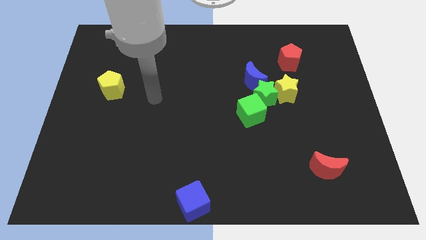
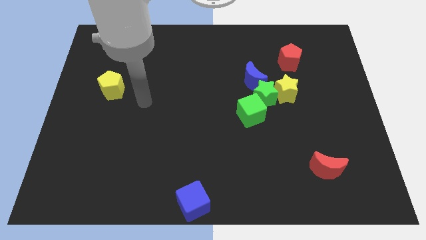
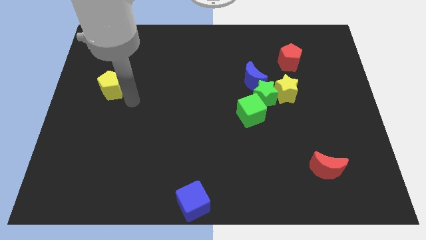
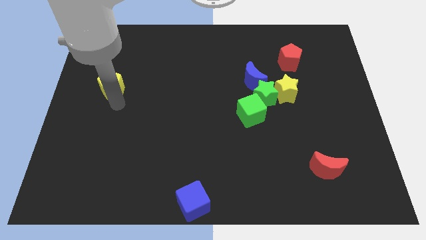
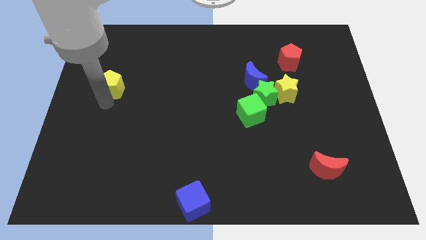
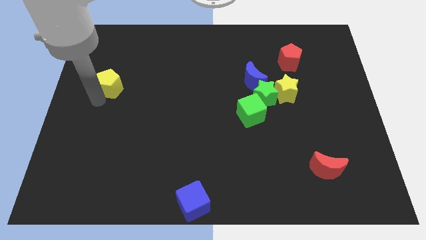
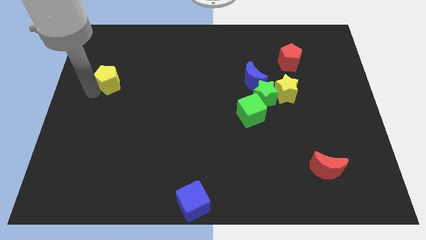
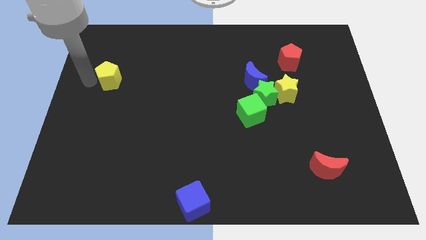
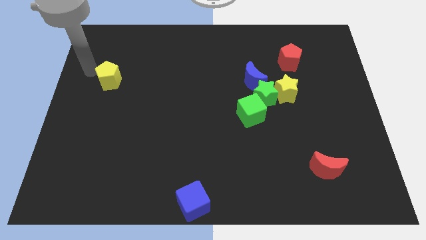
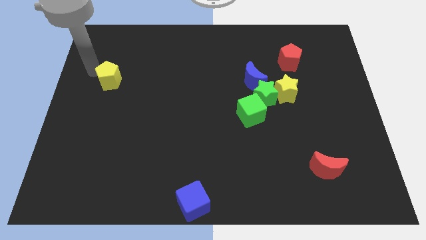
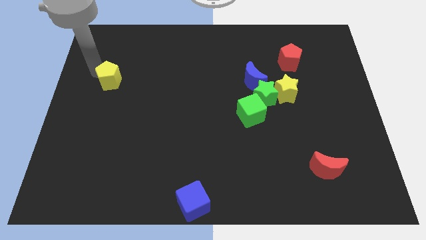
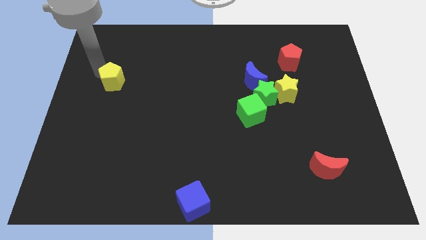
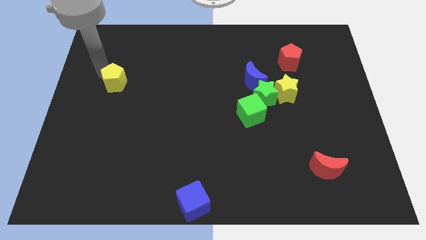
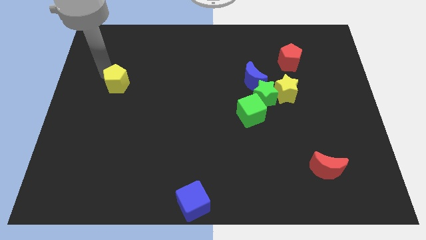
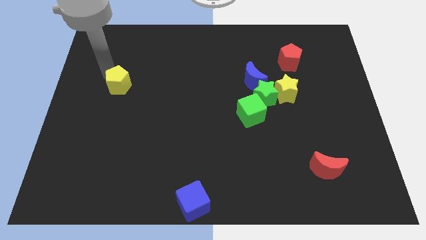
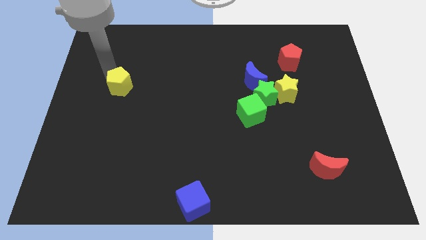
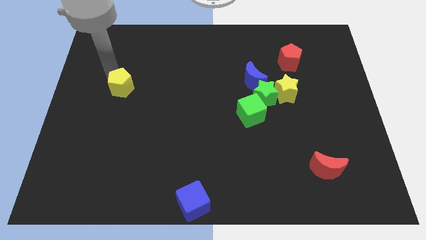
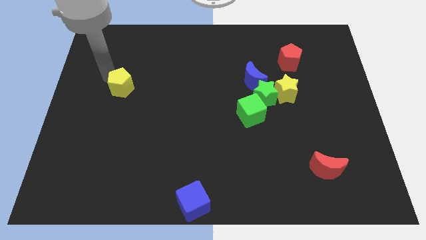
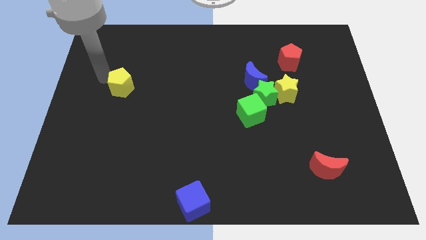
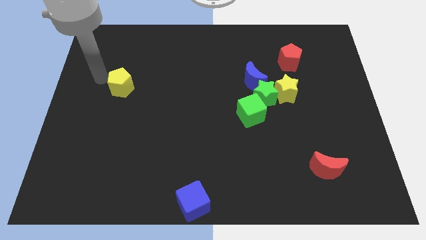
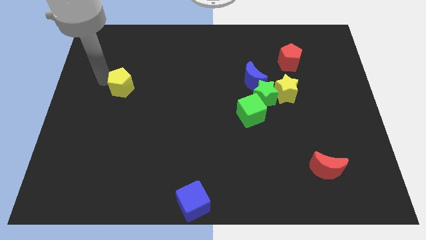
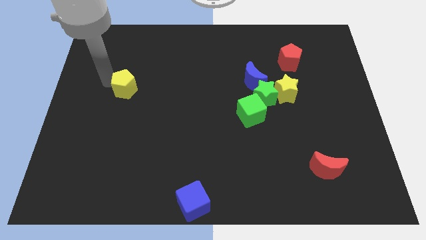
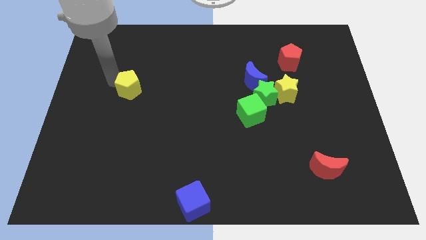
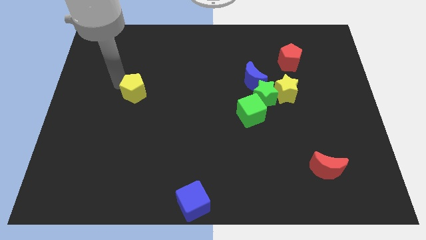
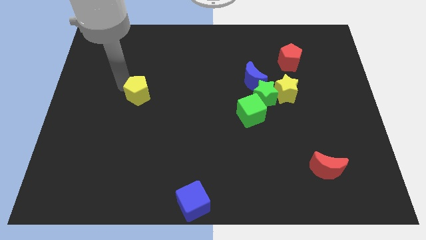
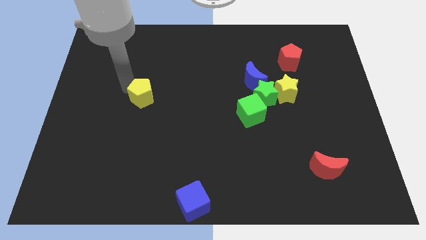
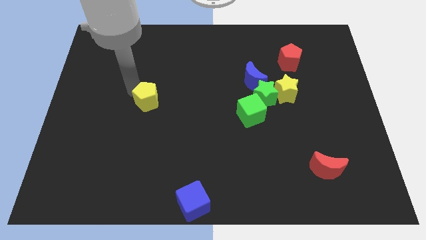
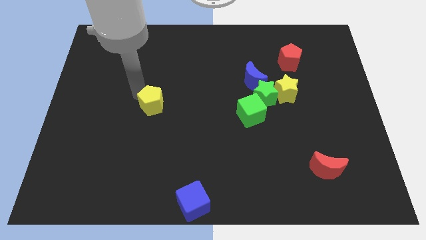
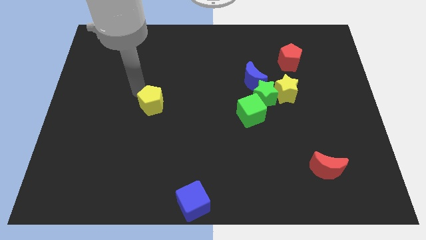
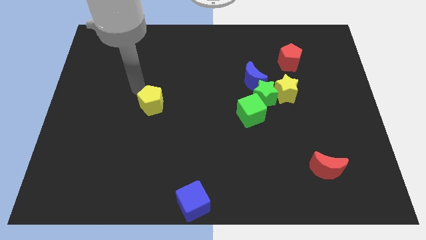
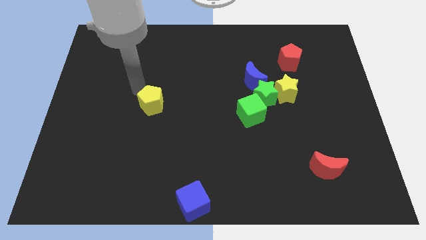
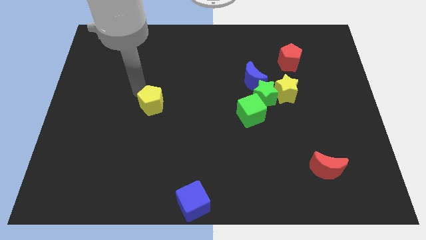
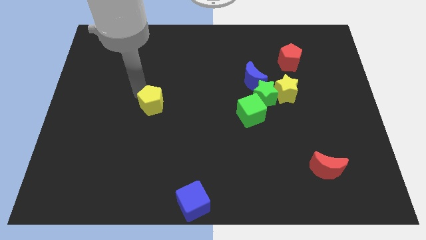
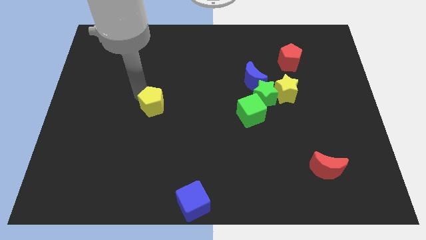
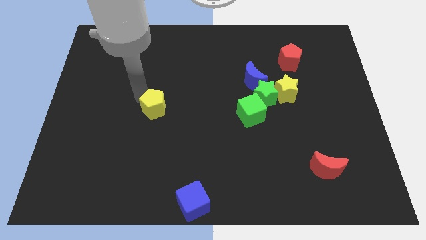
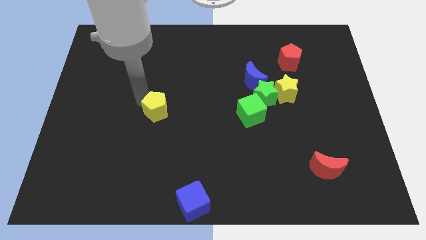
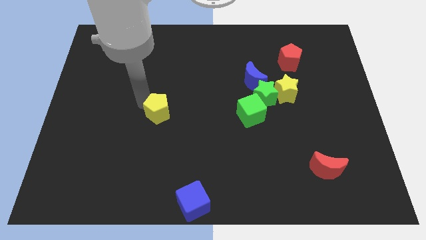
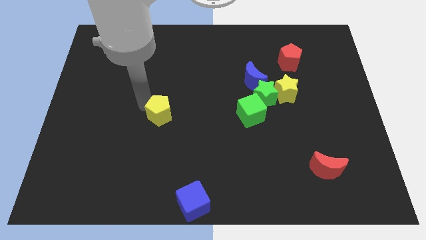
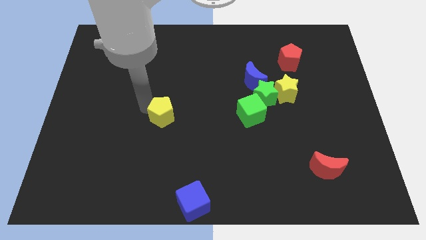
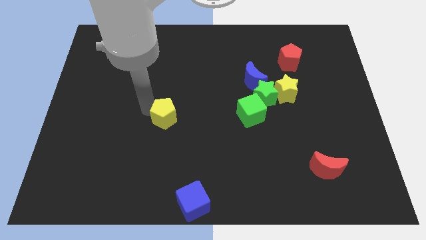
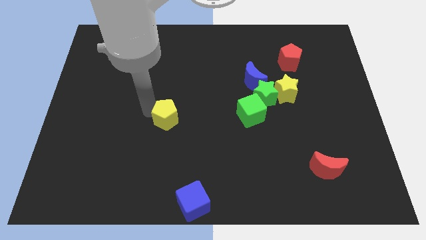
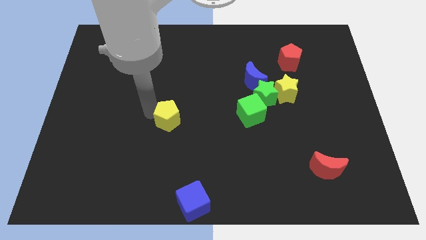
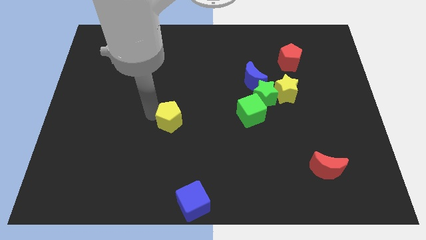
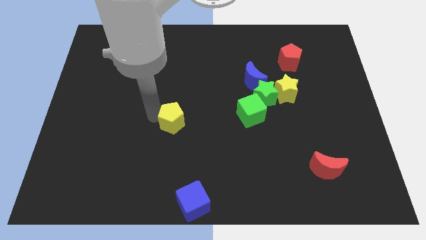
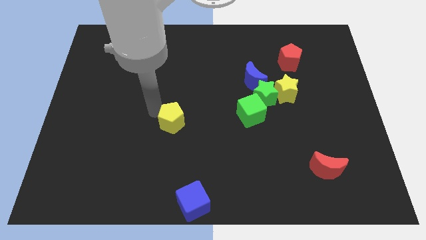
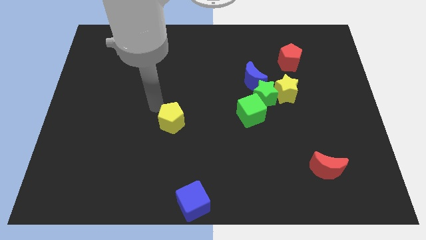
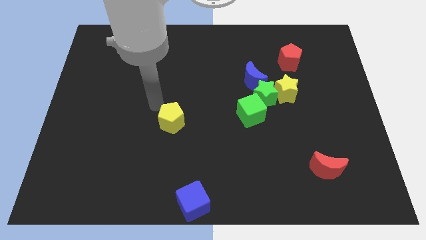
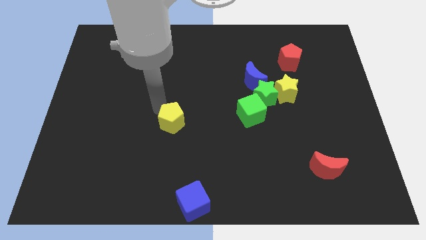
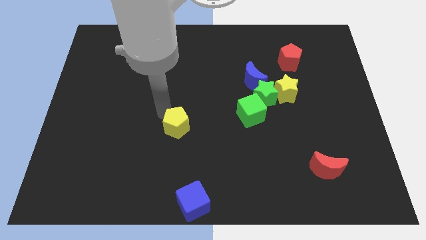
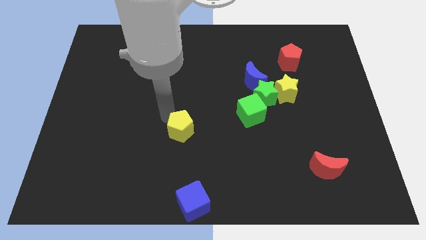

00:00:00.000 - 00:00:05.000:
push the yellow pentagon down and right diagonally

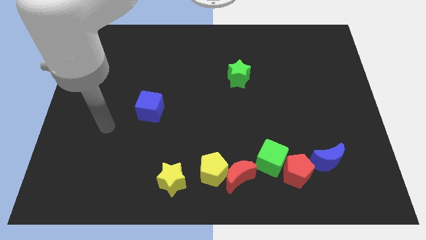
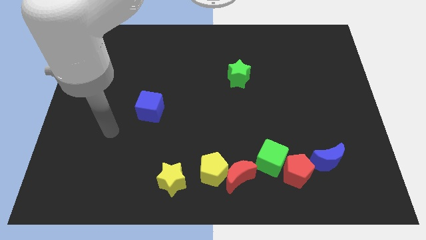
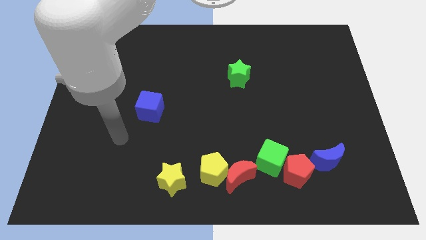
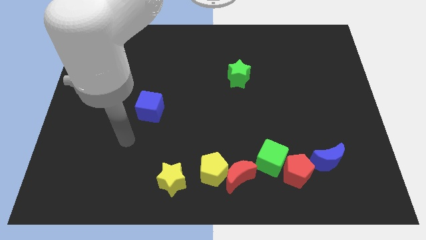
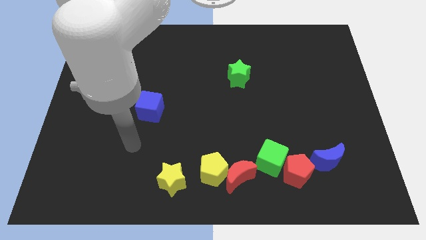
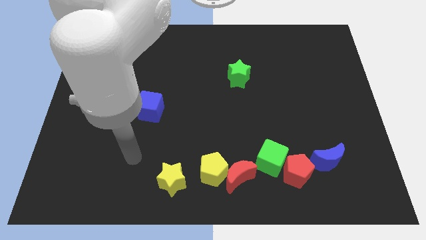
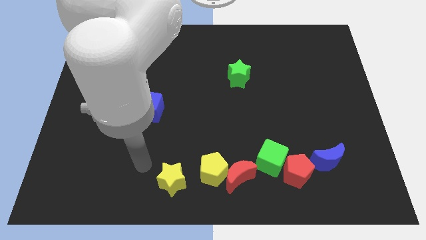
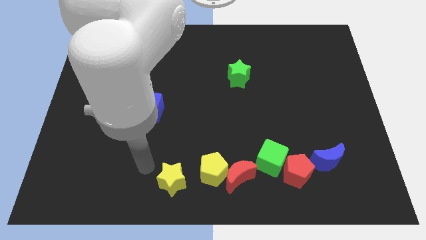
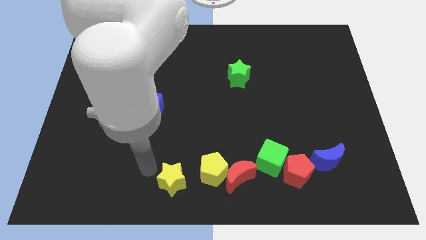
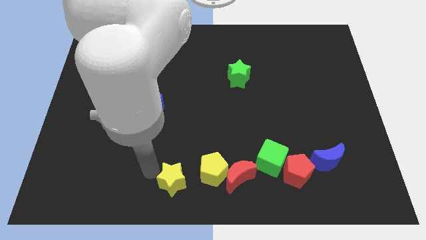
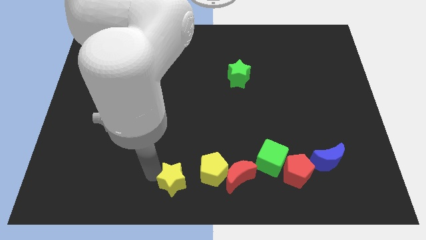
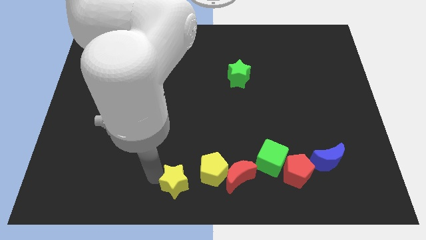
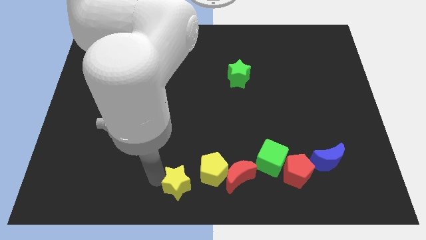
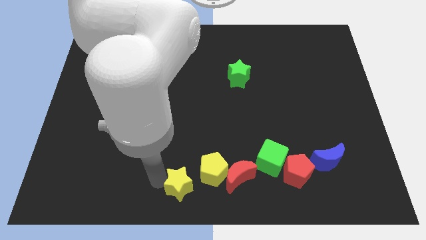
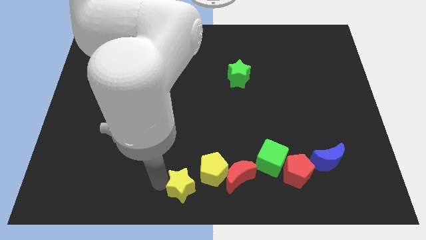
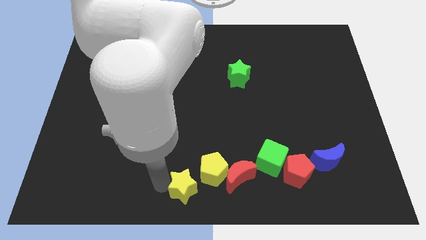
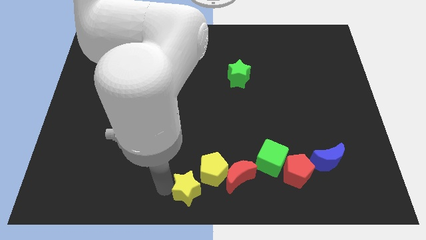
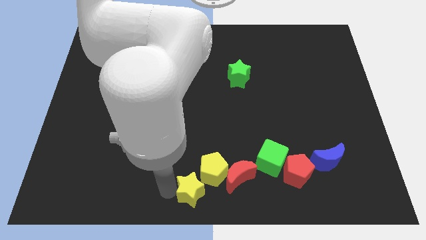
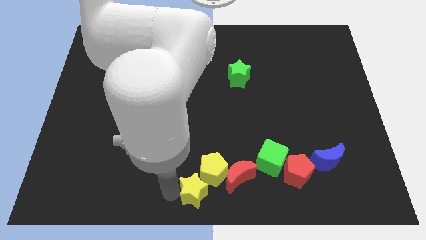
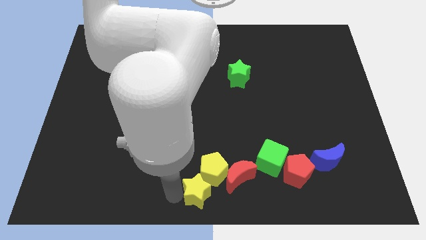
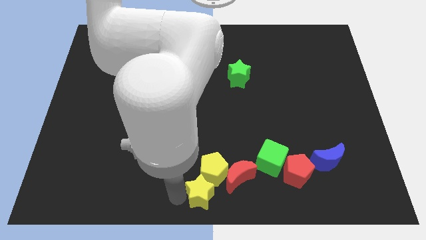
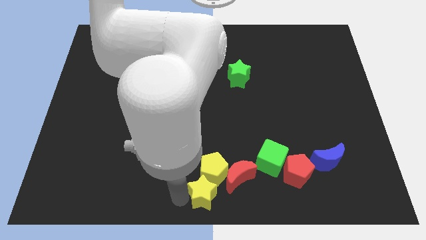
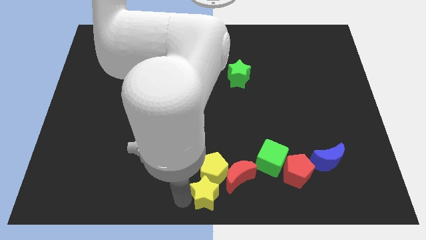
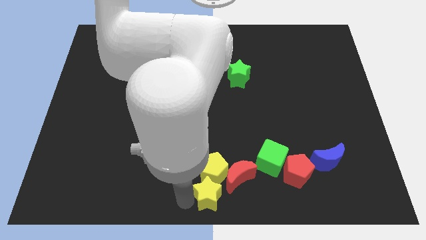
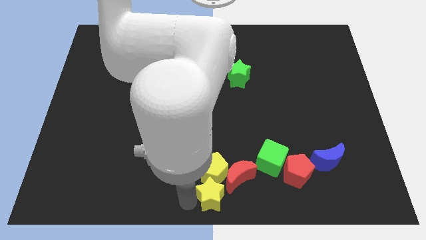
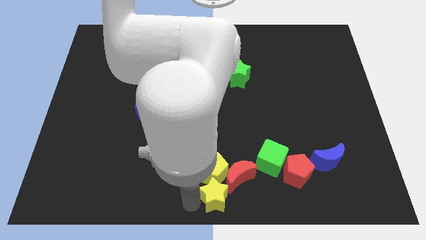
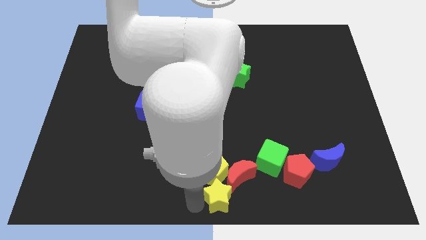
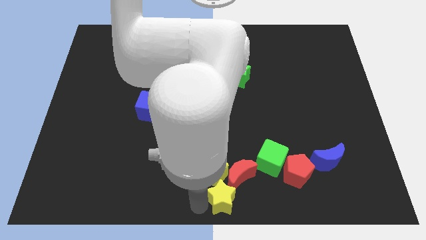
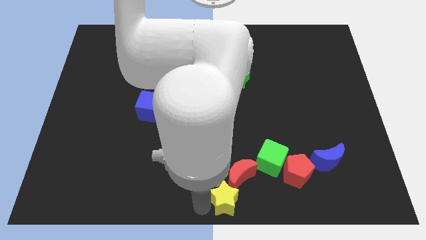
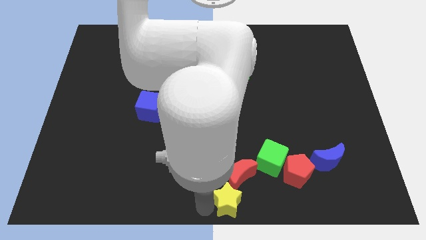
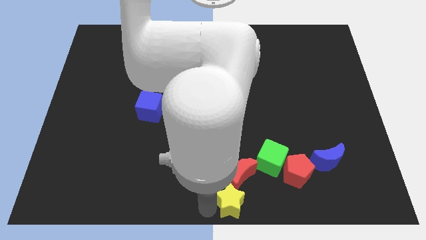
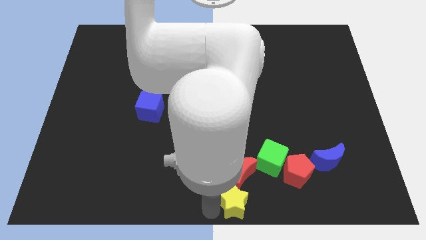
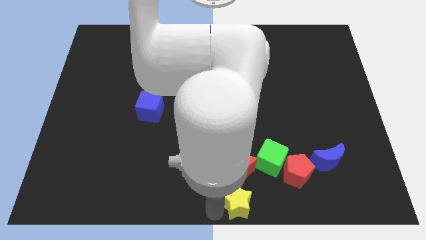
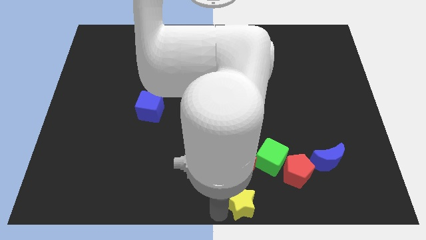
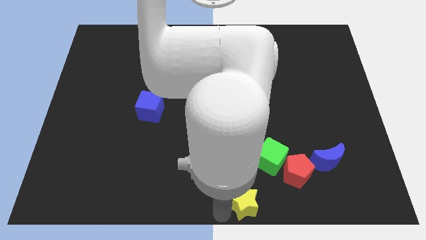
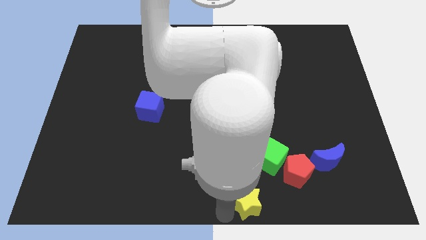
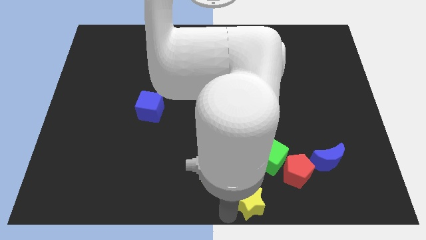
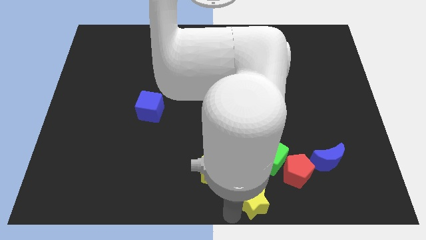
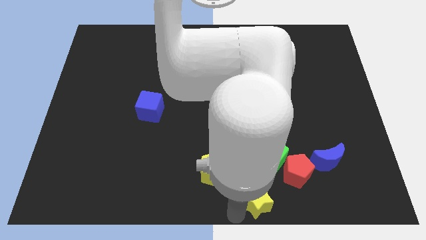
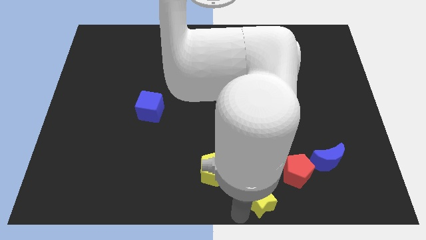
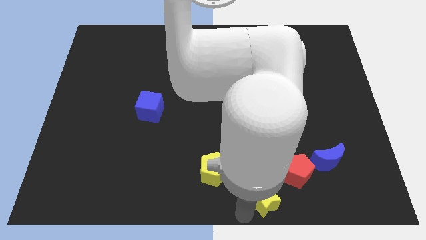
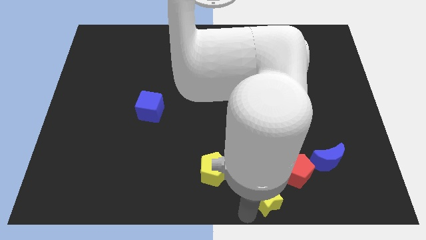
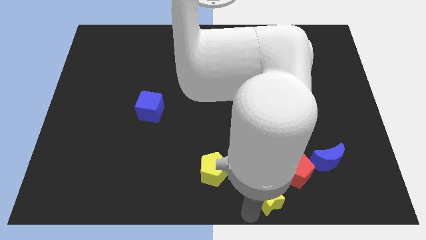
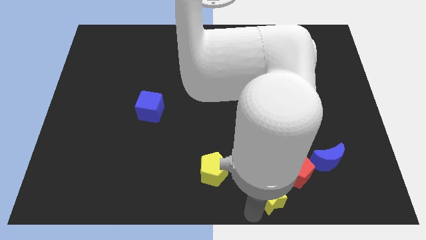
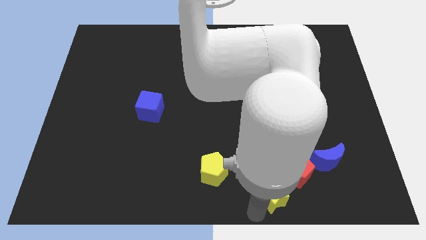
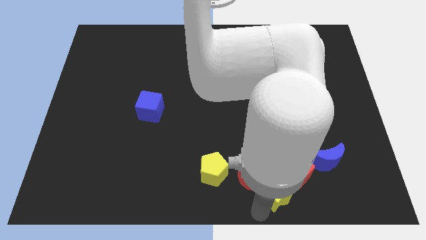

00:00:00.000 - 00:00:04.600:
push the yellow star to the right
